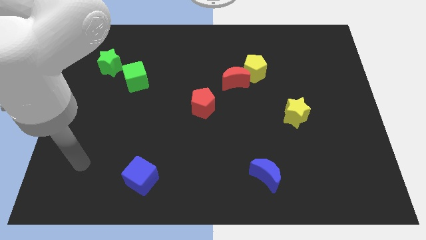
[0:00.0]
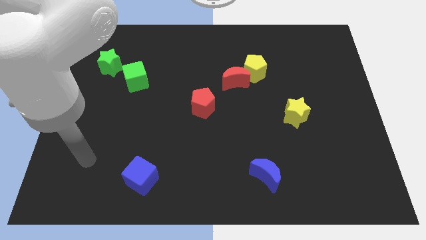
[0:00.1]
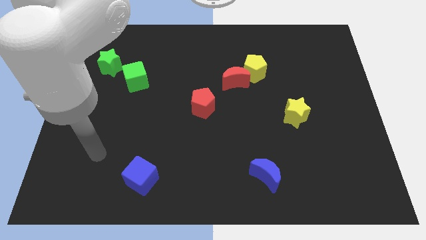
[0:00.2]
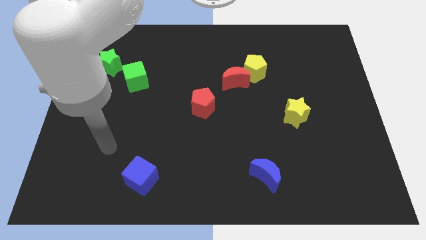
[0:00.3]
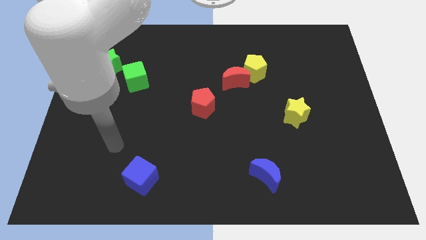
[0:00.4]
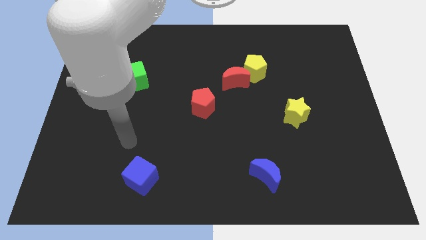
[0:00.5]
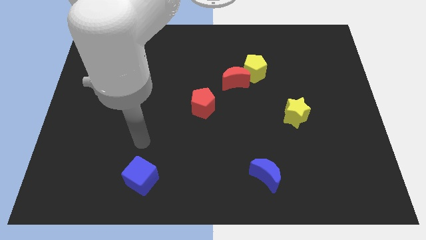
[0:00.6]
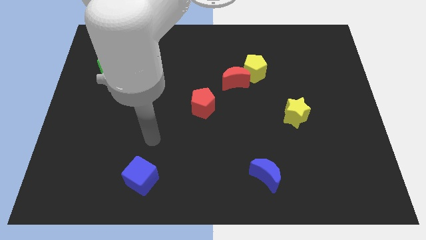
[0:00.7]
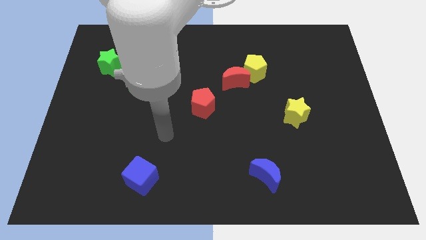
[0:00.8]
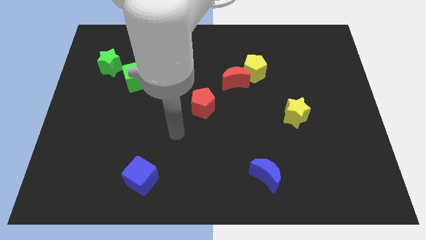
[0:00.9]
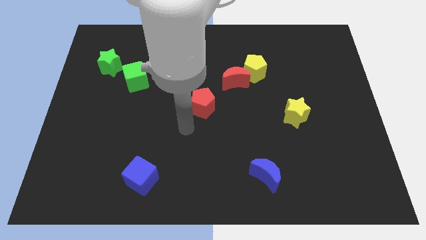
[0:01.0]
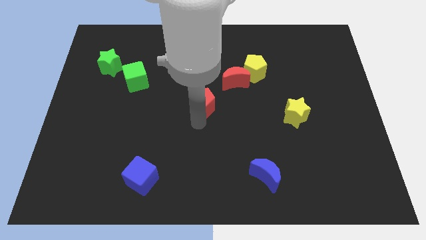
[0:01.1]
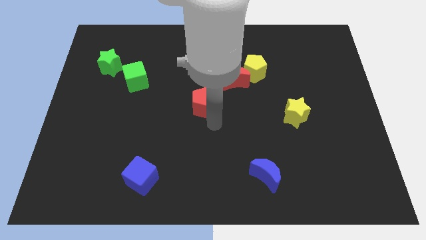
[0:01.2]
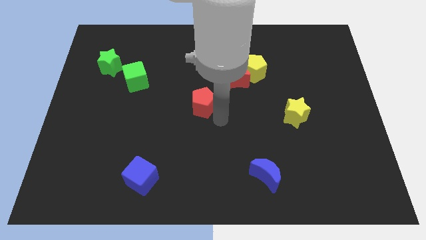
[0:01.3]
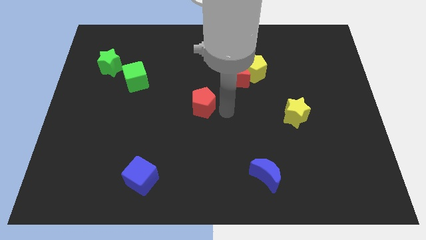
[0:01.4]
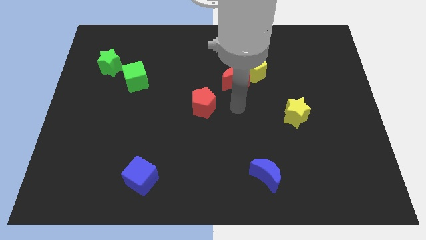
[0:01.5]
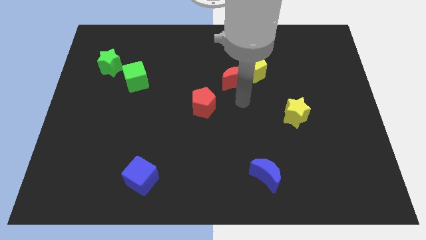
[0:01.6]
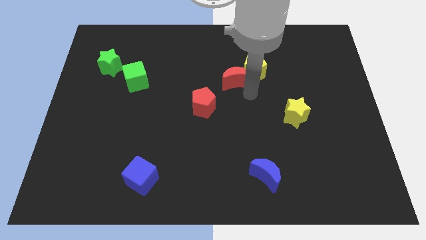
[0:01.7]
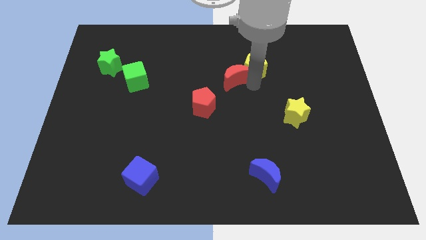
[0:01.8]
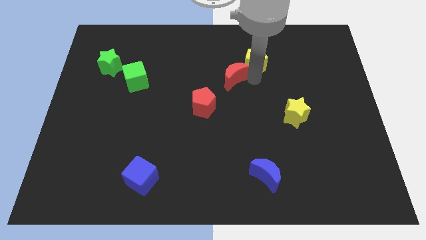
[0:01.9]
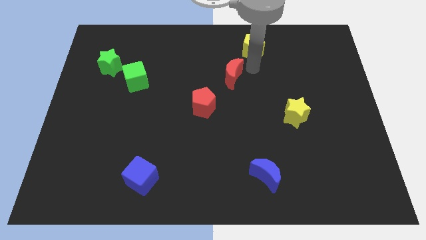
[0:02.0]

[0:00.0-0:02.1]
pull the red moon apart from the yellow pentagon

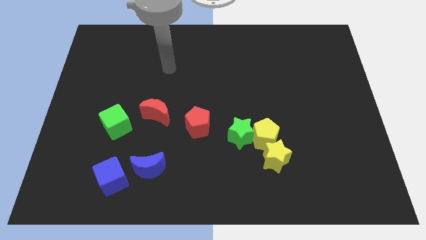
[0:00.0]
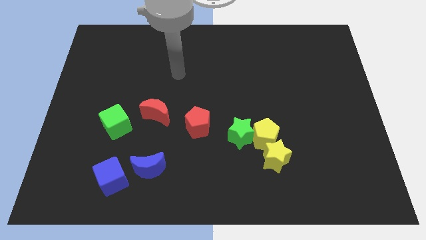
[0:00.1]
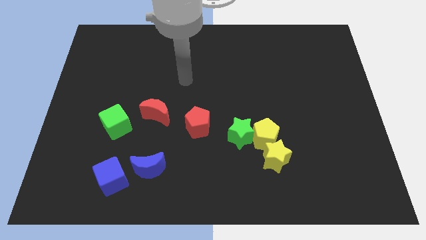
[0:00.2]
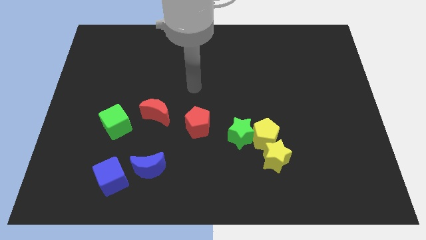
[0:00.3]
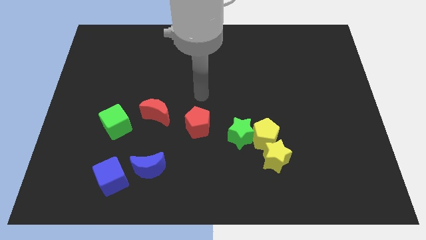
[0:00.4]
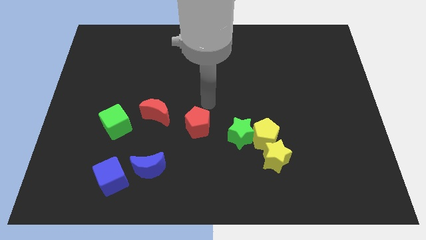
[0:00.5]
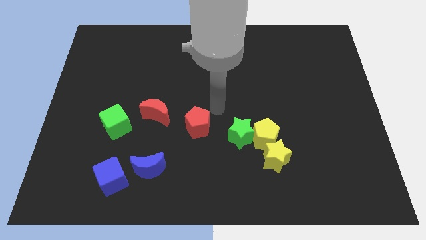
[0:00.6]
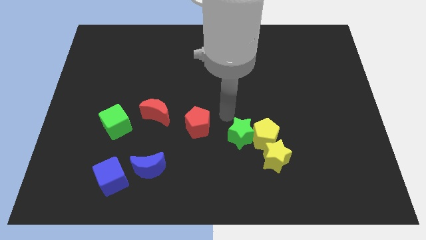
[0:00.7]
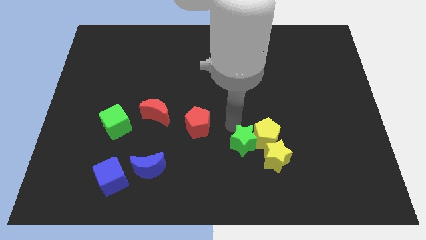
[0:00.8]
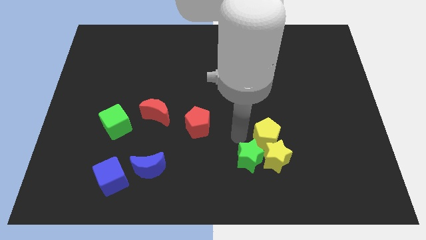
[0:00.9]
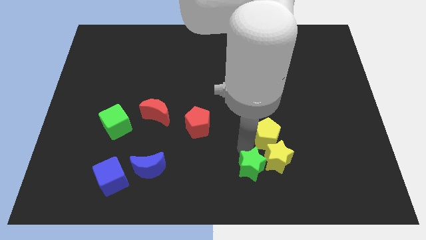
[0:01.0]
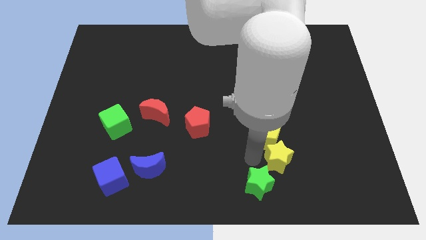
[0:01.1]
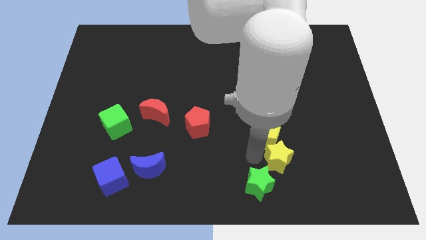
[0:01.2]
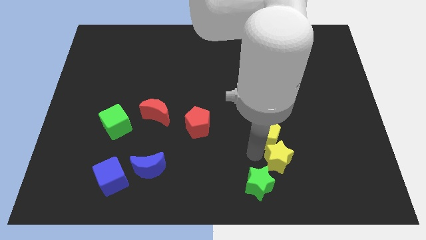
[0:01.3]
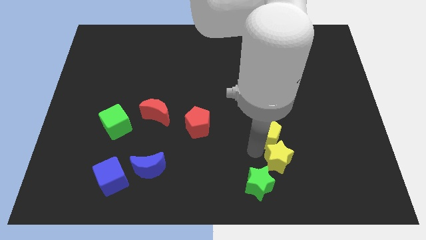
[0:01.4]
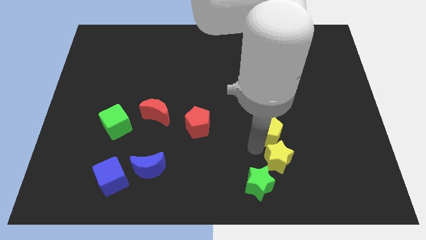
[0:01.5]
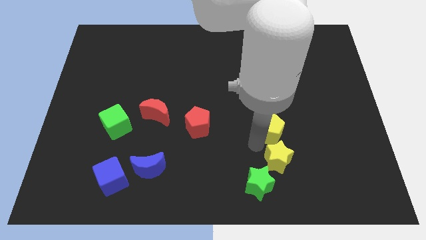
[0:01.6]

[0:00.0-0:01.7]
separate the yellow pentagon from the green star and yellow star

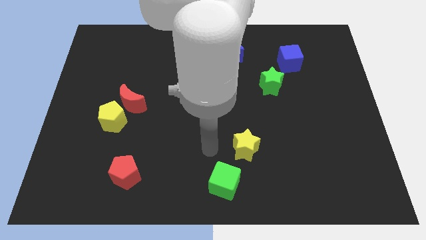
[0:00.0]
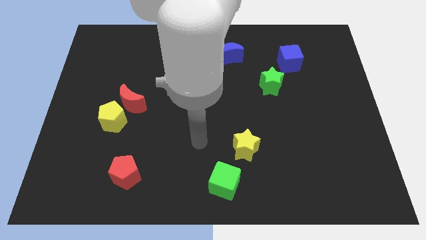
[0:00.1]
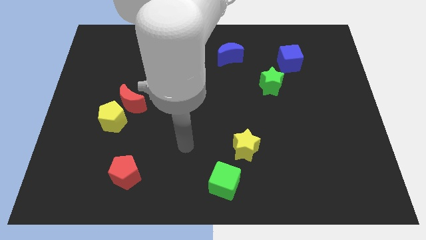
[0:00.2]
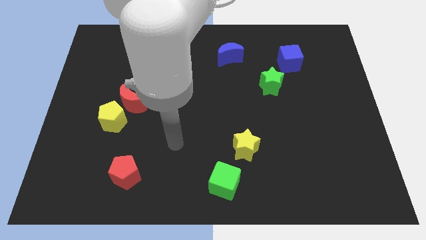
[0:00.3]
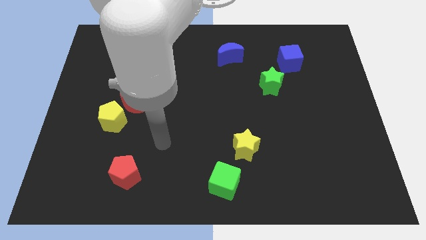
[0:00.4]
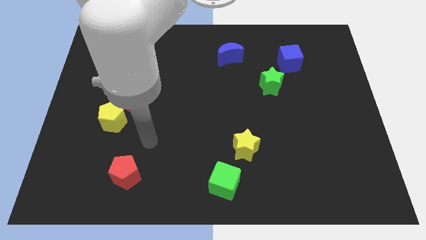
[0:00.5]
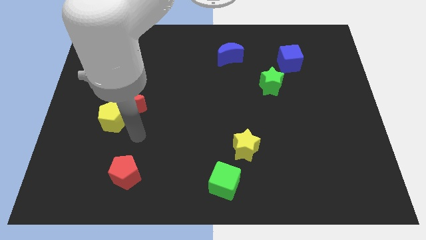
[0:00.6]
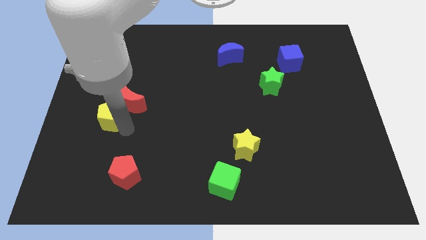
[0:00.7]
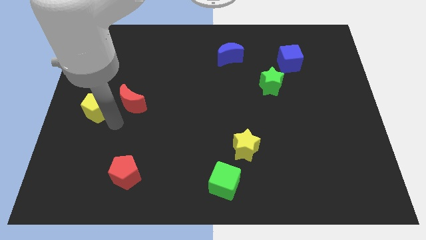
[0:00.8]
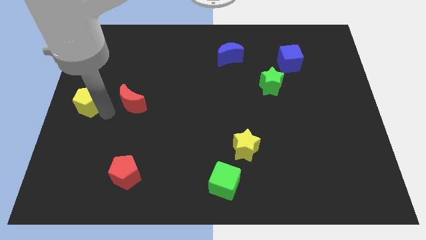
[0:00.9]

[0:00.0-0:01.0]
separate the red moon from the yellow pentagon

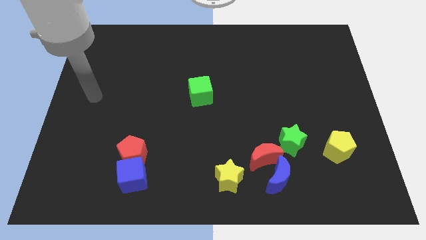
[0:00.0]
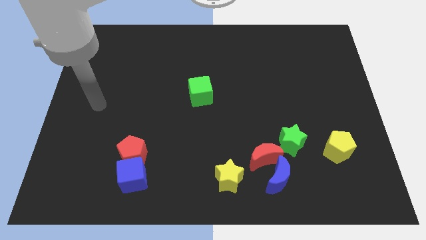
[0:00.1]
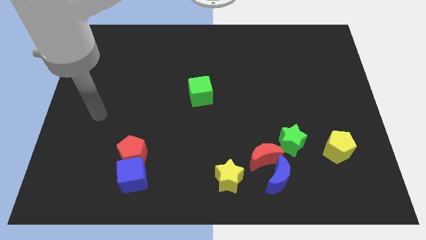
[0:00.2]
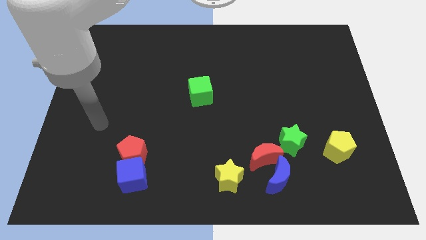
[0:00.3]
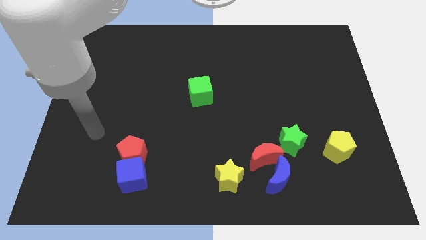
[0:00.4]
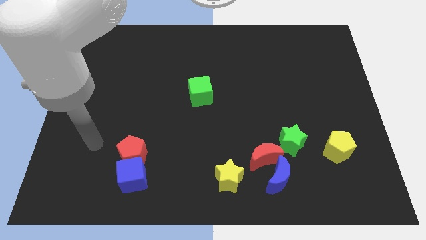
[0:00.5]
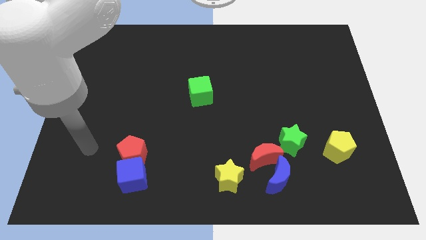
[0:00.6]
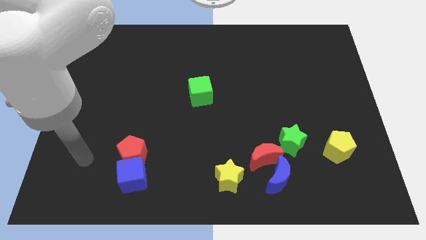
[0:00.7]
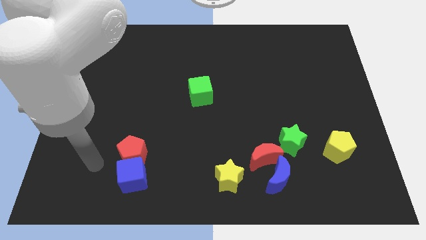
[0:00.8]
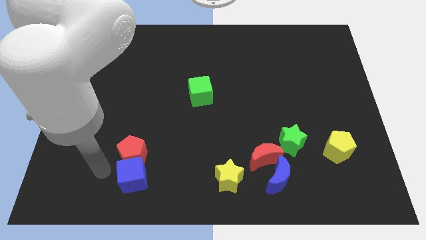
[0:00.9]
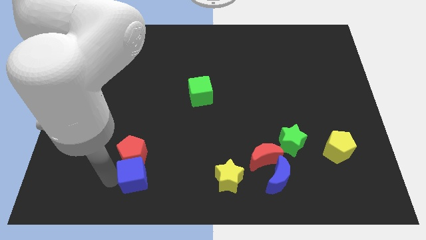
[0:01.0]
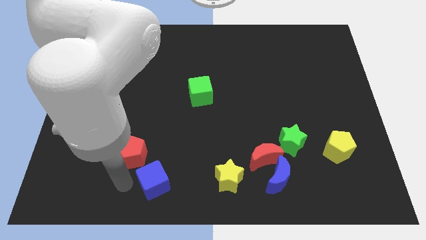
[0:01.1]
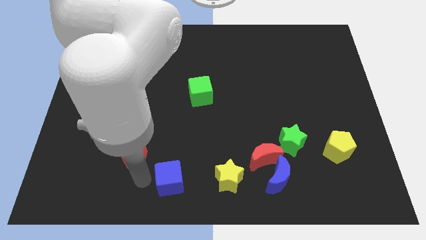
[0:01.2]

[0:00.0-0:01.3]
pull the red pentagon apart from the blue cube

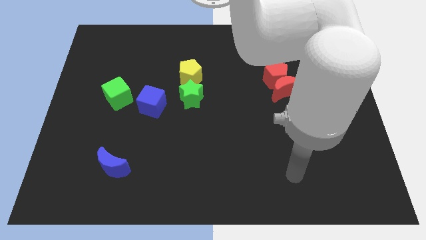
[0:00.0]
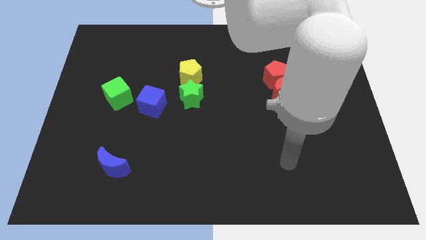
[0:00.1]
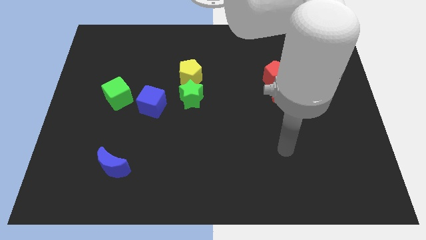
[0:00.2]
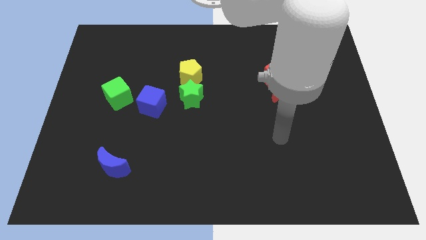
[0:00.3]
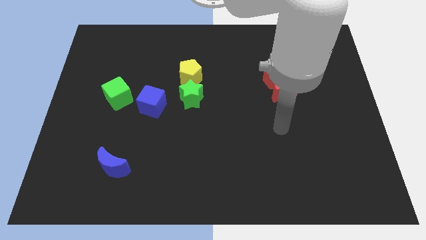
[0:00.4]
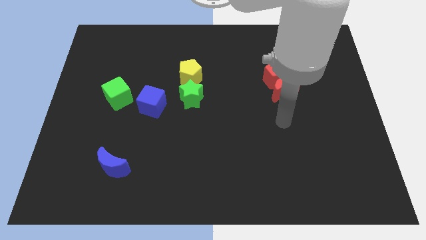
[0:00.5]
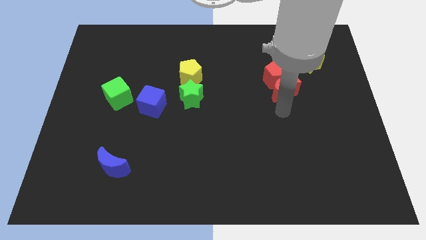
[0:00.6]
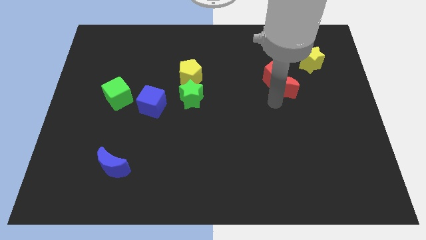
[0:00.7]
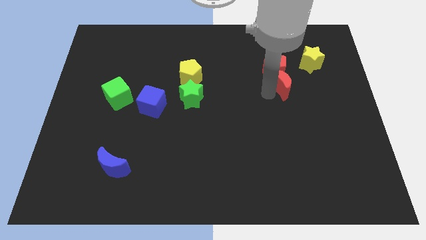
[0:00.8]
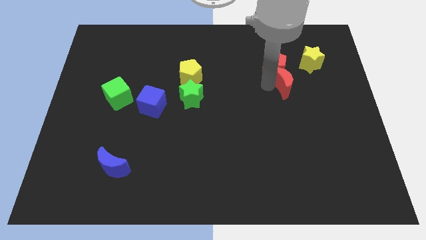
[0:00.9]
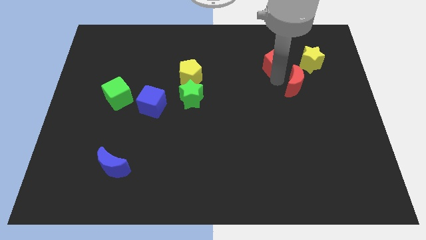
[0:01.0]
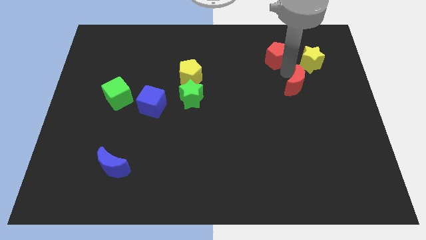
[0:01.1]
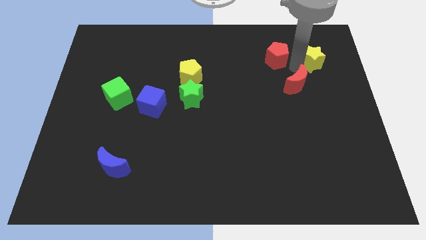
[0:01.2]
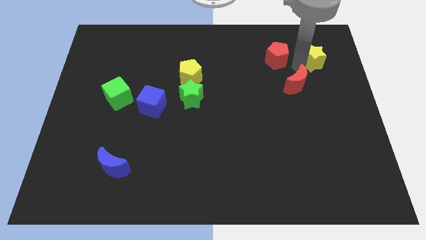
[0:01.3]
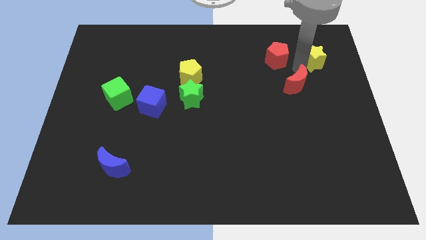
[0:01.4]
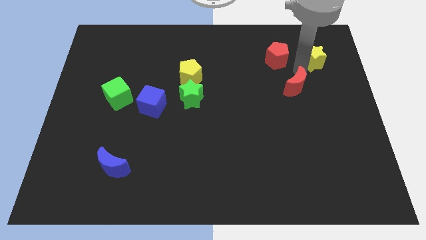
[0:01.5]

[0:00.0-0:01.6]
separate the red moon from the red pentagon

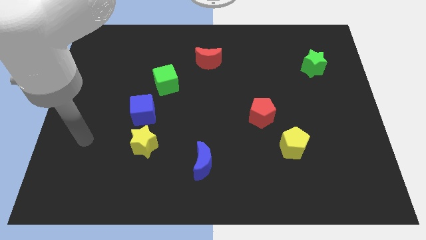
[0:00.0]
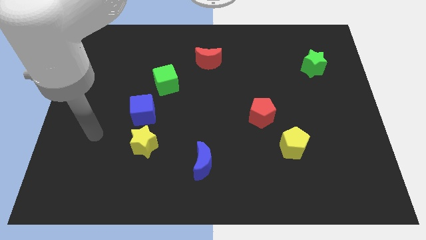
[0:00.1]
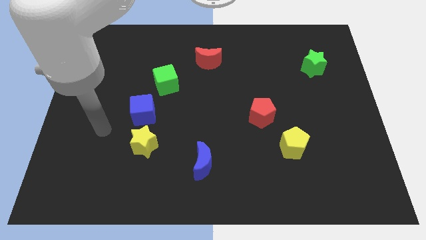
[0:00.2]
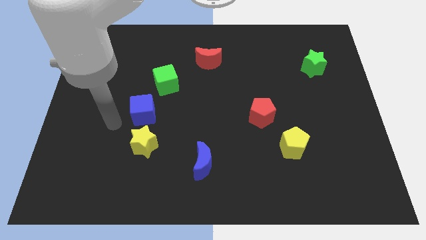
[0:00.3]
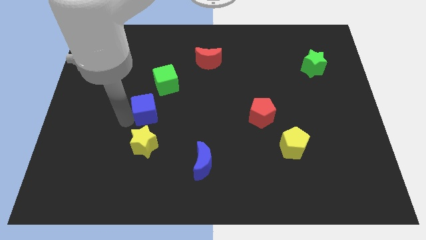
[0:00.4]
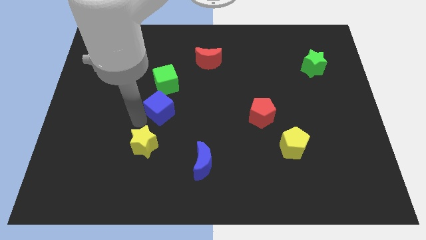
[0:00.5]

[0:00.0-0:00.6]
pull the yellow star apart from the blue cube

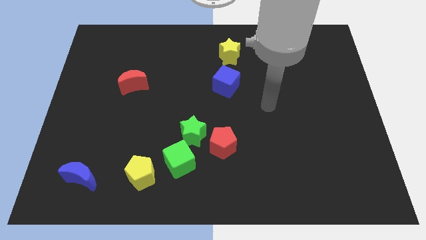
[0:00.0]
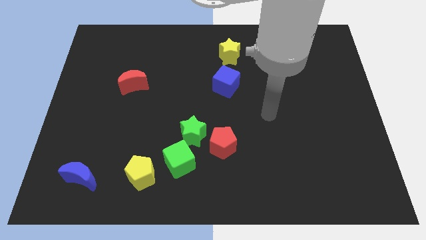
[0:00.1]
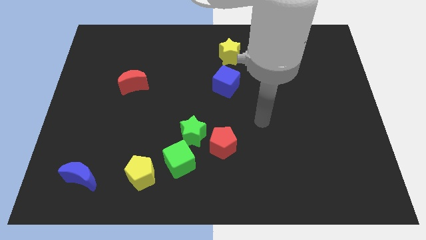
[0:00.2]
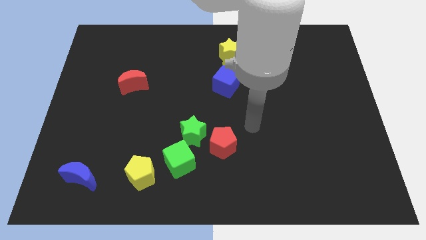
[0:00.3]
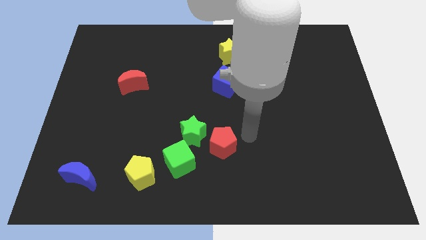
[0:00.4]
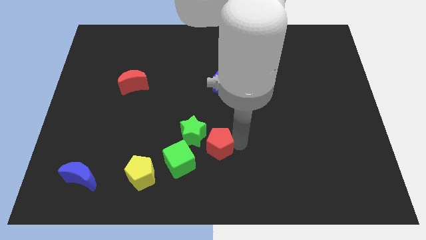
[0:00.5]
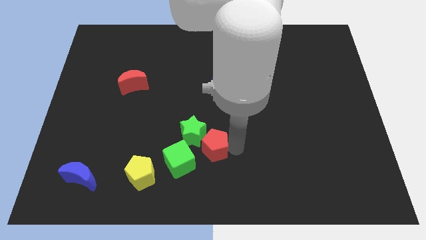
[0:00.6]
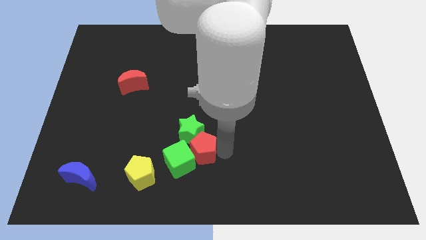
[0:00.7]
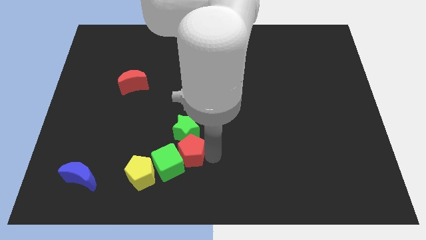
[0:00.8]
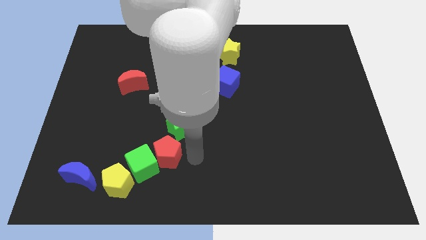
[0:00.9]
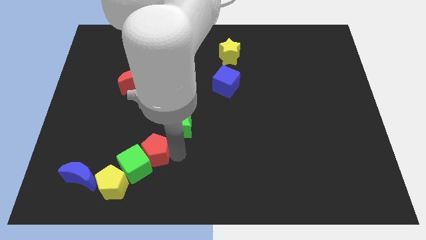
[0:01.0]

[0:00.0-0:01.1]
pull the green star apart from the red pentagon and green cube
